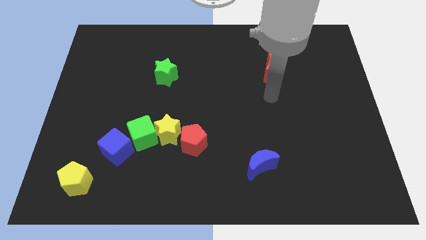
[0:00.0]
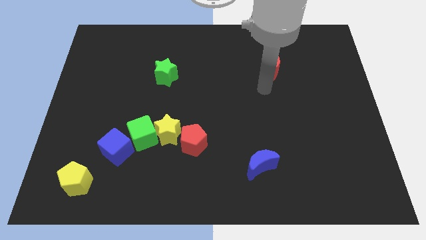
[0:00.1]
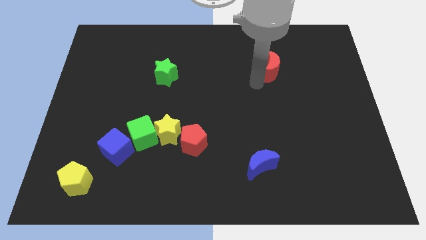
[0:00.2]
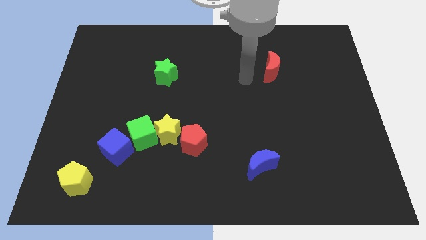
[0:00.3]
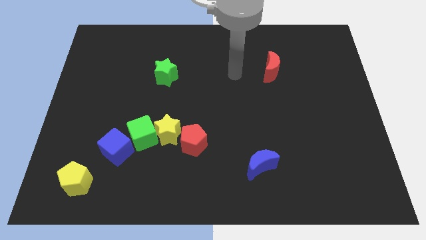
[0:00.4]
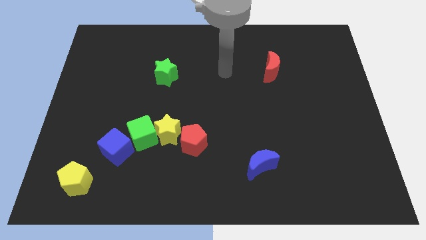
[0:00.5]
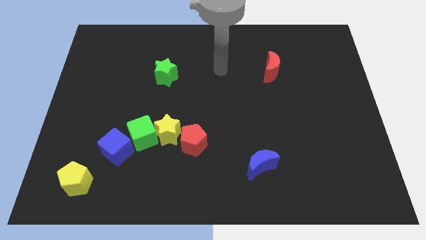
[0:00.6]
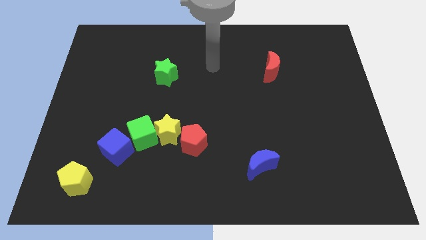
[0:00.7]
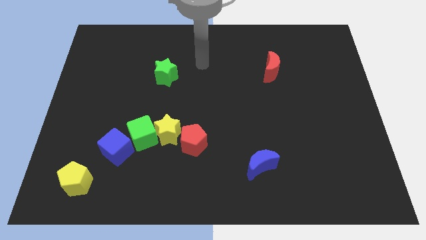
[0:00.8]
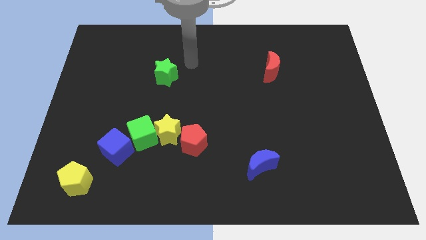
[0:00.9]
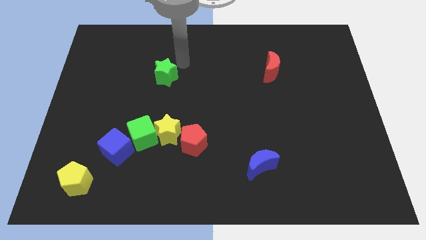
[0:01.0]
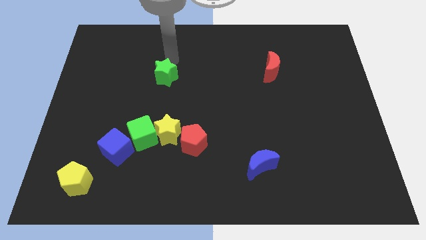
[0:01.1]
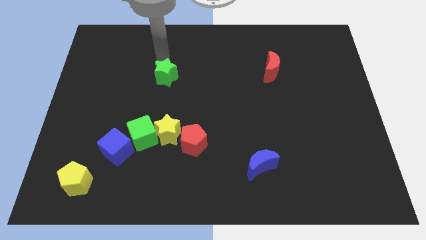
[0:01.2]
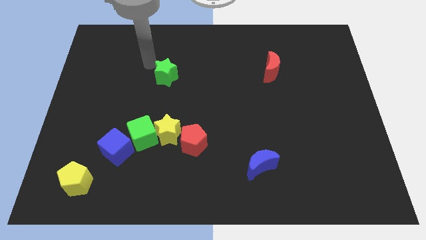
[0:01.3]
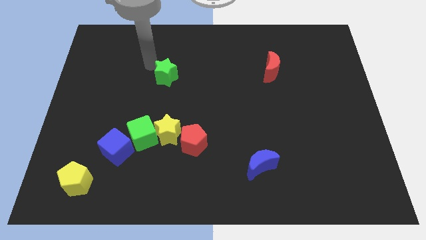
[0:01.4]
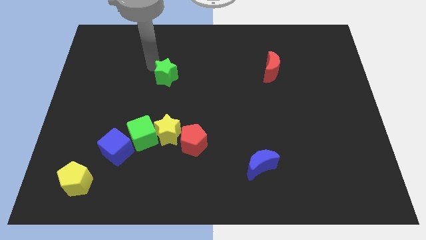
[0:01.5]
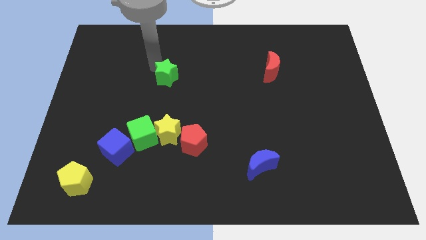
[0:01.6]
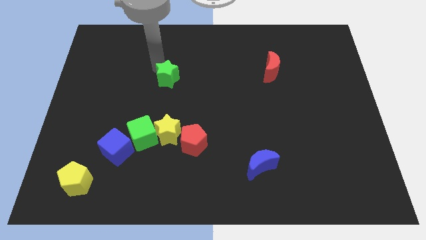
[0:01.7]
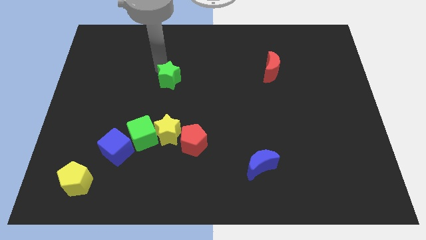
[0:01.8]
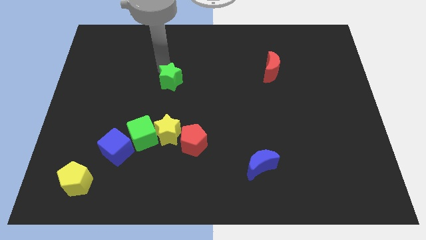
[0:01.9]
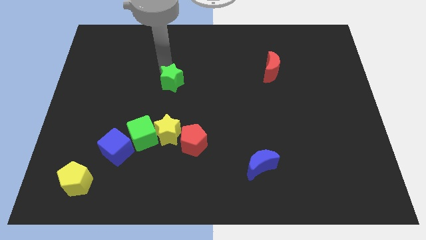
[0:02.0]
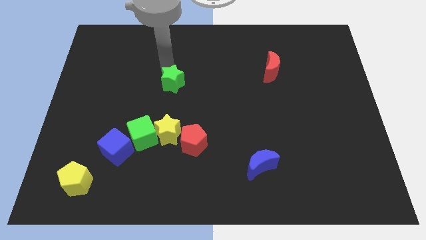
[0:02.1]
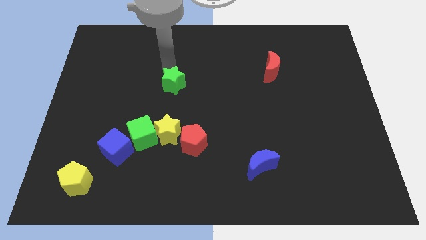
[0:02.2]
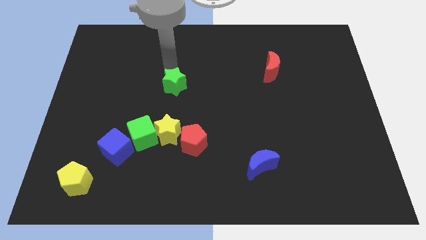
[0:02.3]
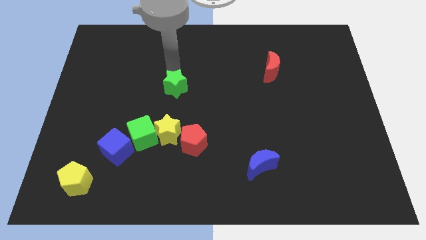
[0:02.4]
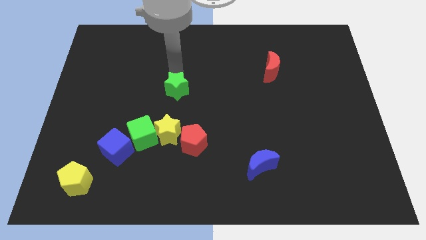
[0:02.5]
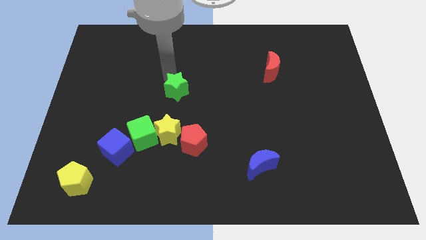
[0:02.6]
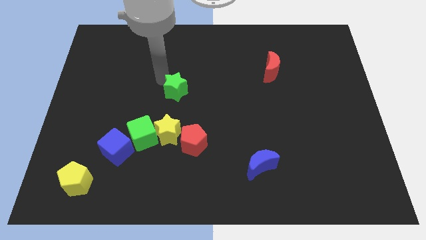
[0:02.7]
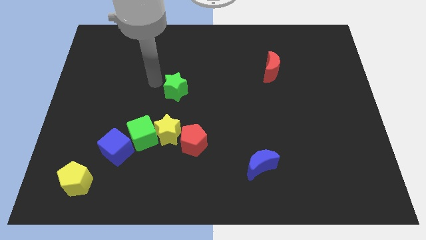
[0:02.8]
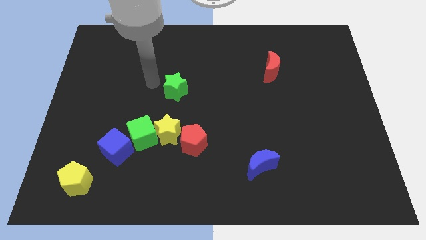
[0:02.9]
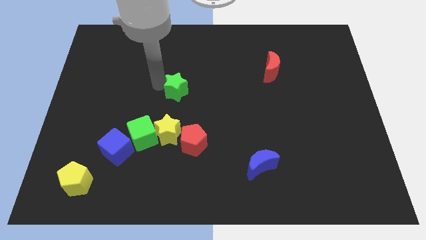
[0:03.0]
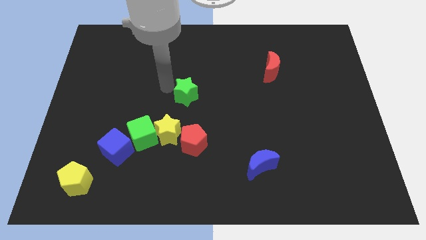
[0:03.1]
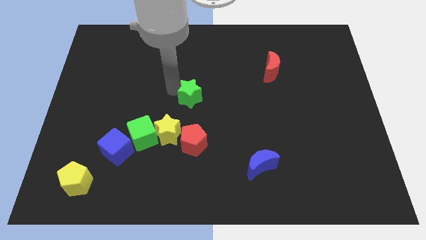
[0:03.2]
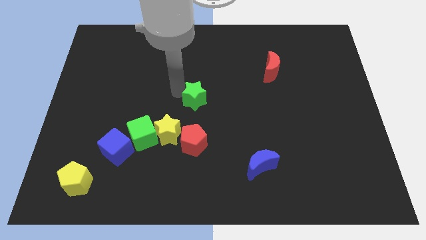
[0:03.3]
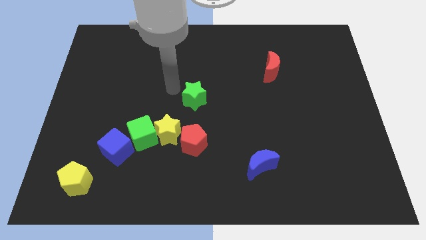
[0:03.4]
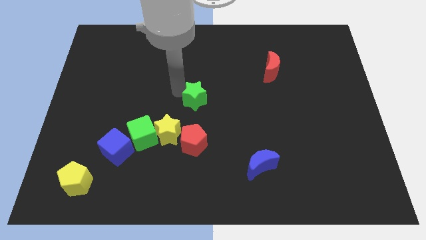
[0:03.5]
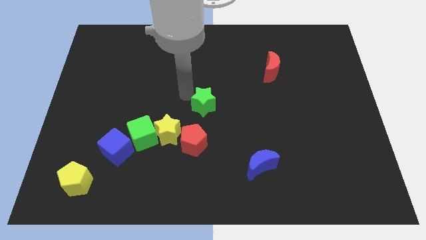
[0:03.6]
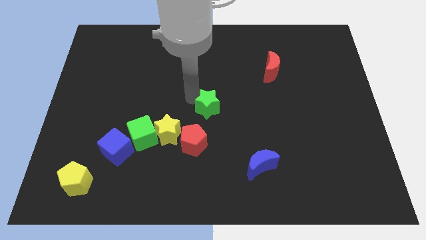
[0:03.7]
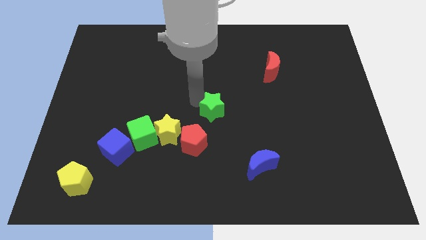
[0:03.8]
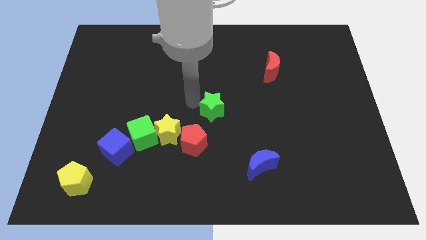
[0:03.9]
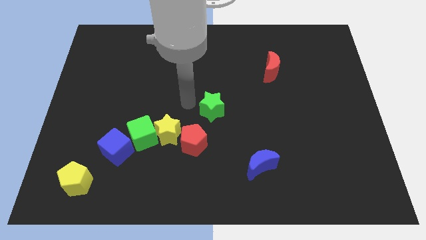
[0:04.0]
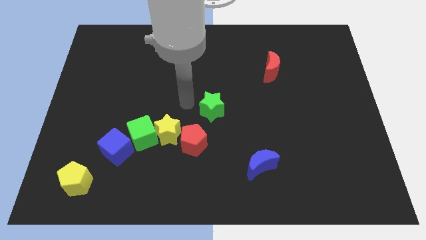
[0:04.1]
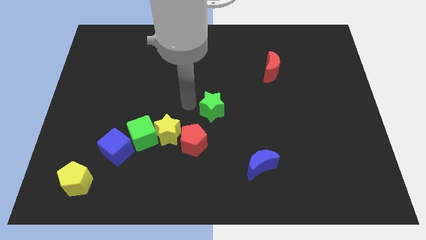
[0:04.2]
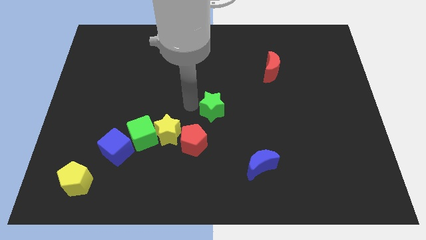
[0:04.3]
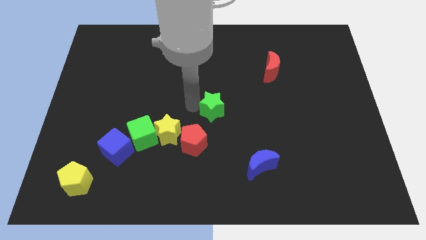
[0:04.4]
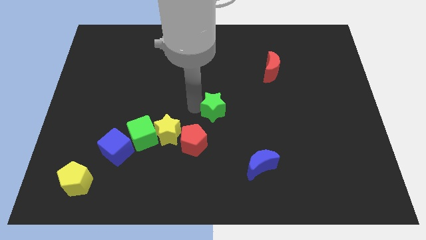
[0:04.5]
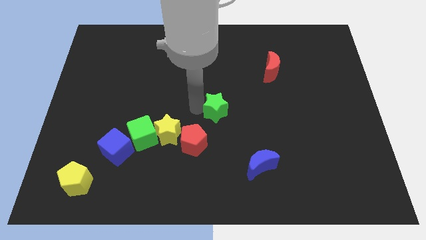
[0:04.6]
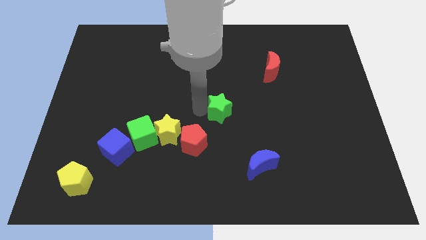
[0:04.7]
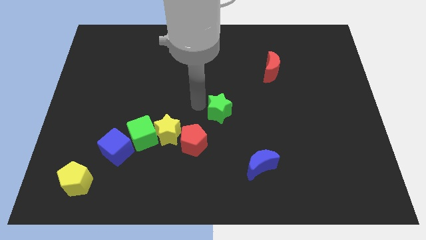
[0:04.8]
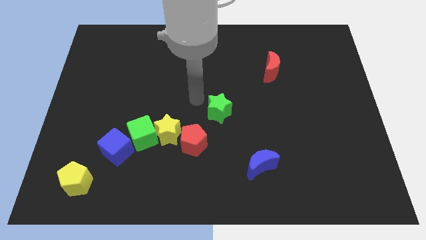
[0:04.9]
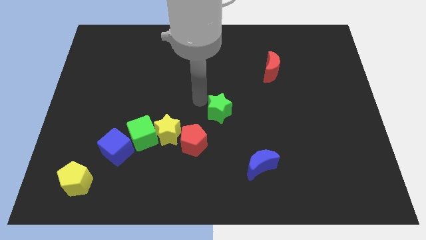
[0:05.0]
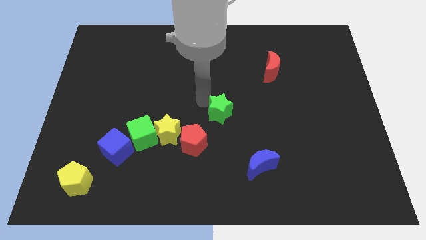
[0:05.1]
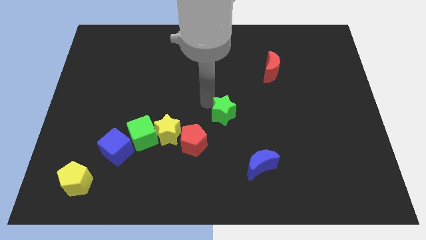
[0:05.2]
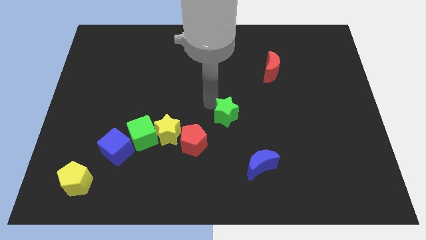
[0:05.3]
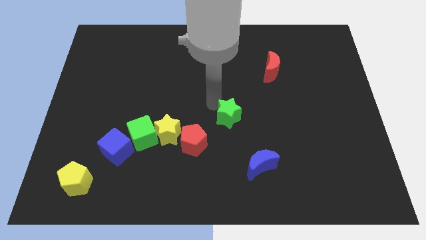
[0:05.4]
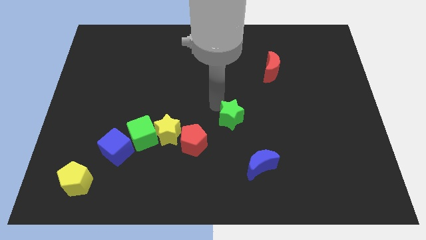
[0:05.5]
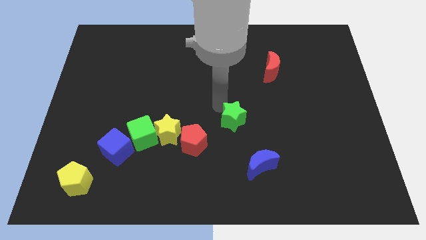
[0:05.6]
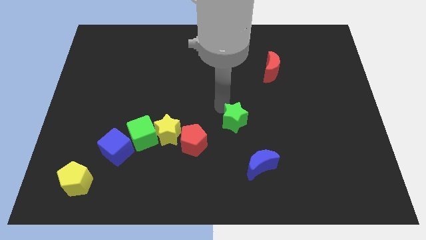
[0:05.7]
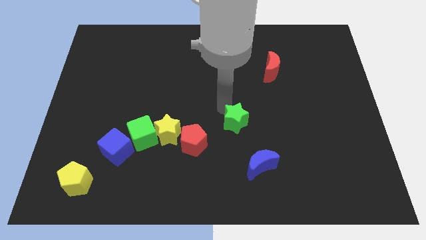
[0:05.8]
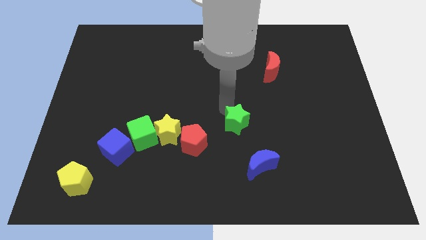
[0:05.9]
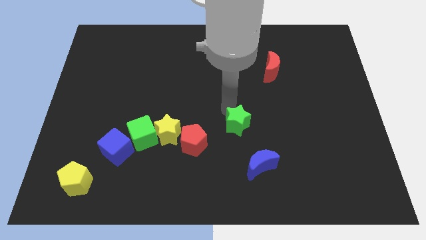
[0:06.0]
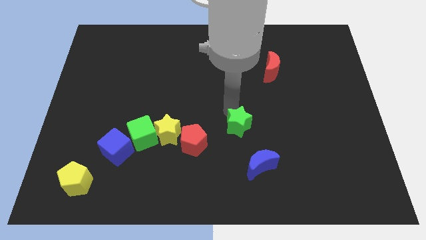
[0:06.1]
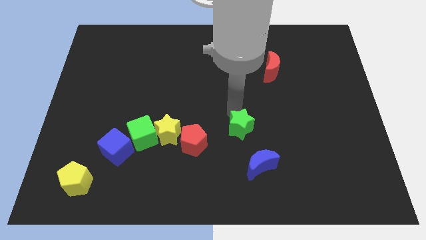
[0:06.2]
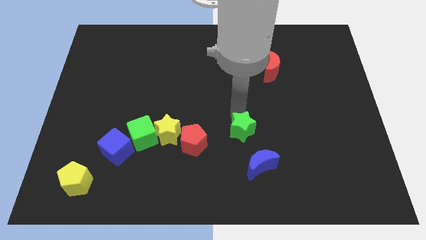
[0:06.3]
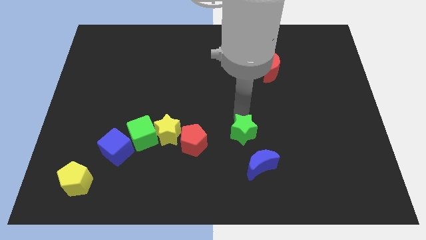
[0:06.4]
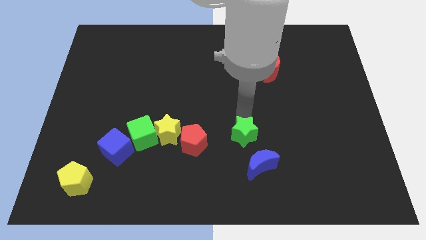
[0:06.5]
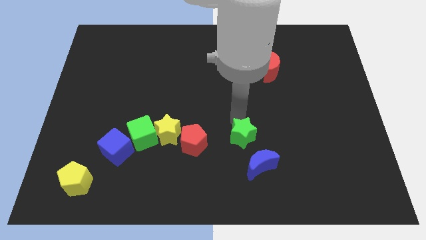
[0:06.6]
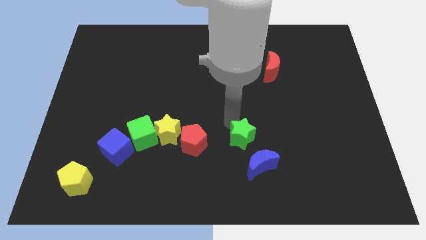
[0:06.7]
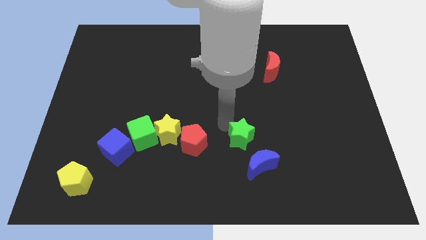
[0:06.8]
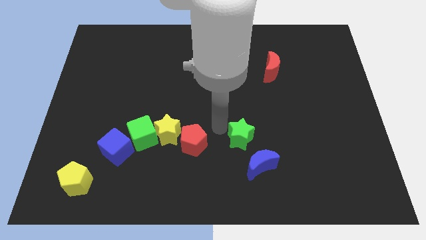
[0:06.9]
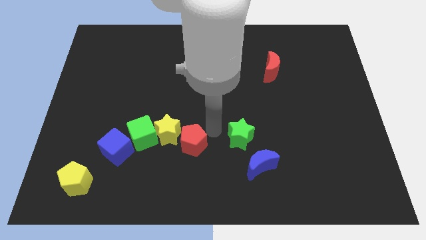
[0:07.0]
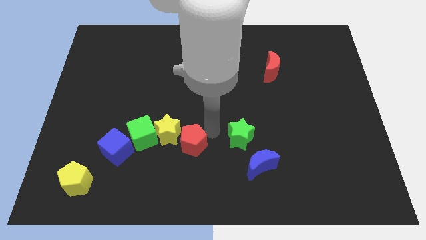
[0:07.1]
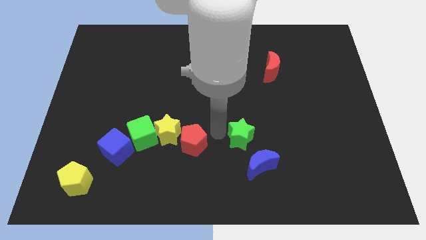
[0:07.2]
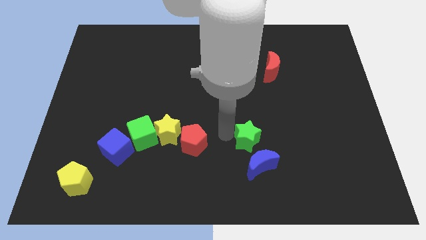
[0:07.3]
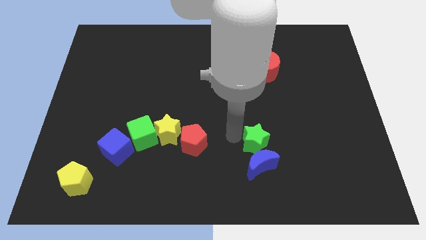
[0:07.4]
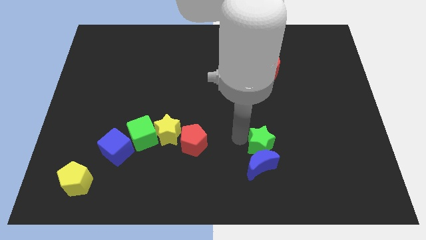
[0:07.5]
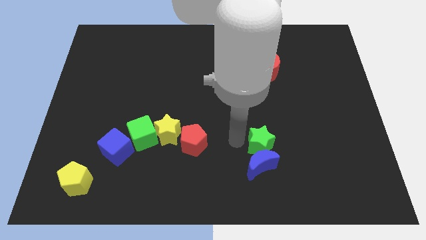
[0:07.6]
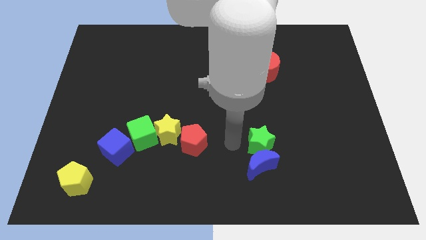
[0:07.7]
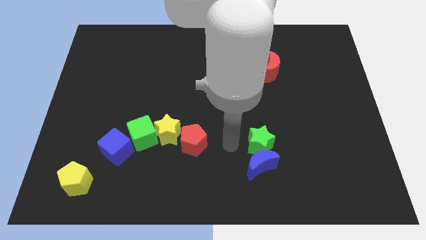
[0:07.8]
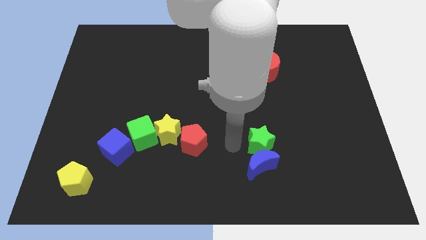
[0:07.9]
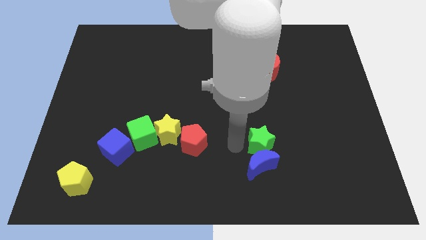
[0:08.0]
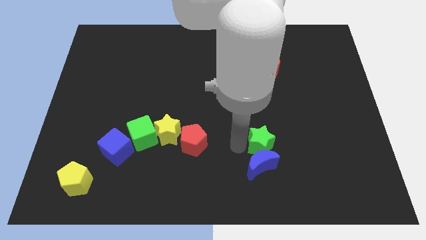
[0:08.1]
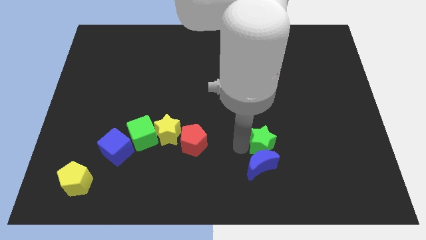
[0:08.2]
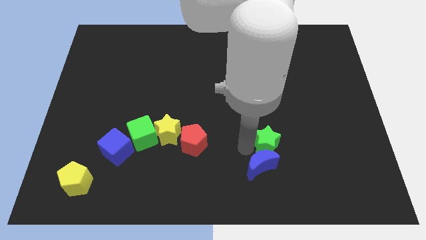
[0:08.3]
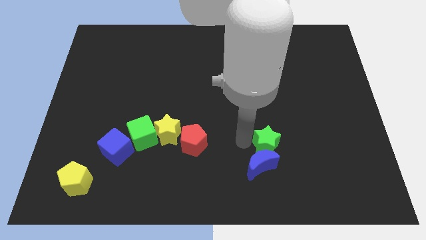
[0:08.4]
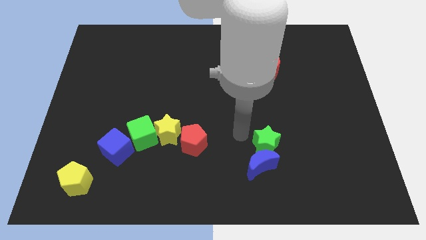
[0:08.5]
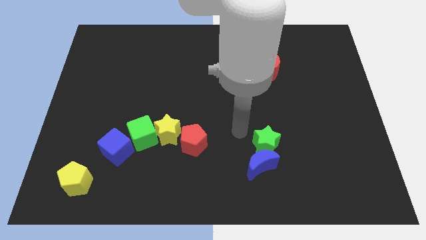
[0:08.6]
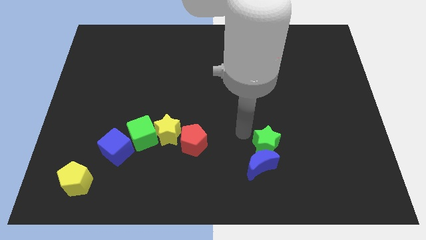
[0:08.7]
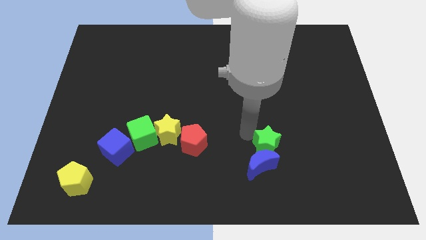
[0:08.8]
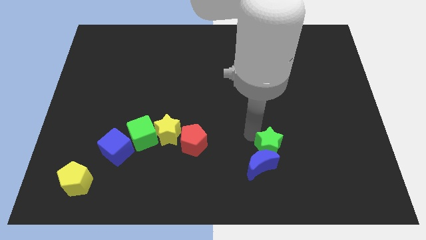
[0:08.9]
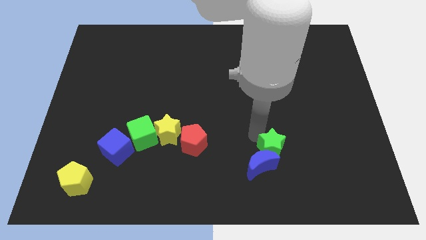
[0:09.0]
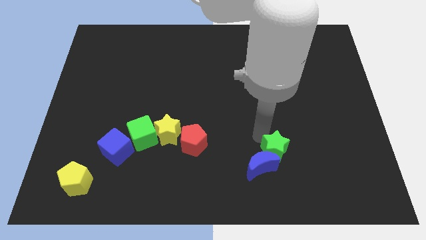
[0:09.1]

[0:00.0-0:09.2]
slide the green star just right of the blue moon
